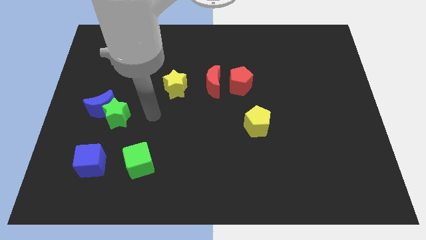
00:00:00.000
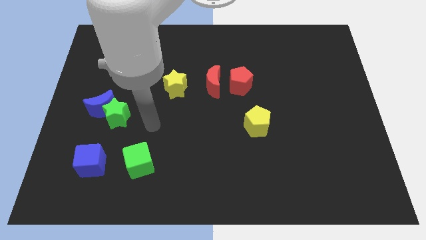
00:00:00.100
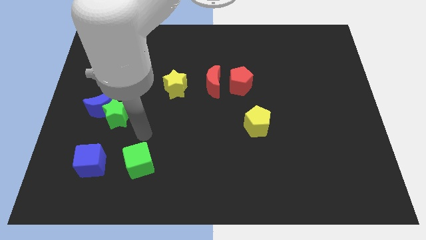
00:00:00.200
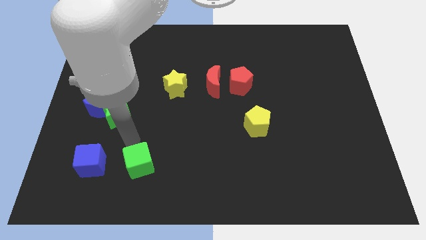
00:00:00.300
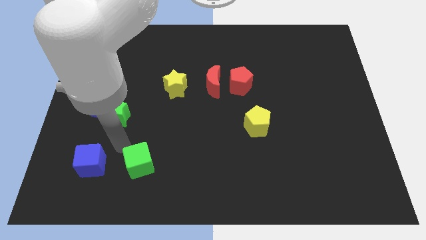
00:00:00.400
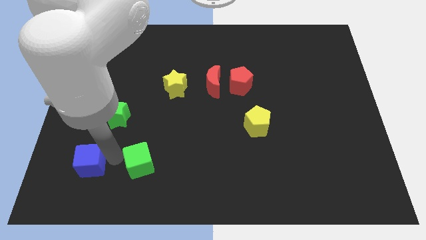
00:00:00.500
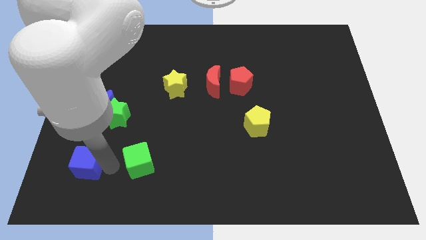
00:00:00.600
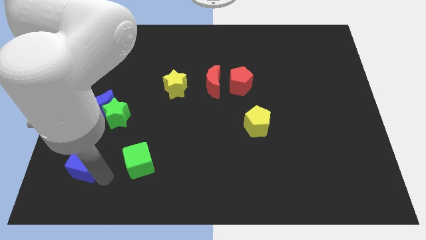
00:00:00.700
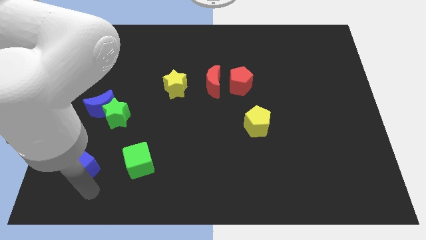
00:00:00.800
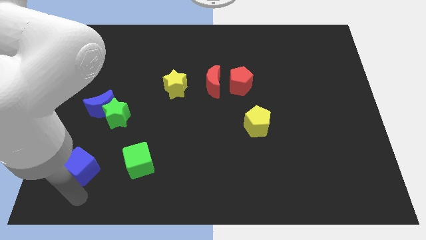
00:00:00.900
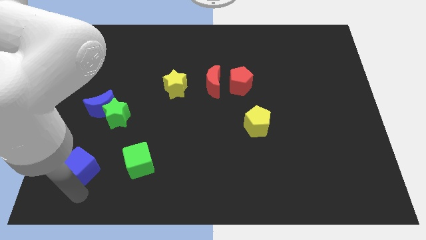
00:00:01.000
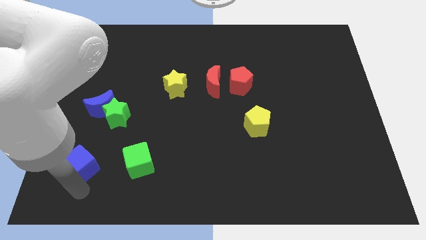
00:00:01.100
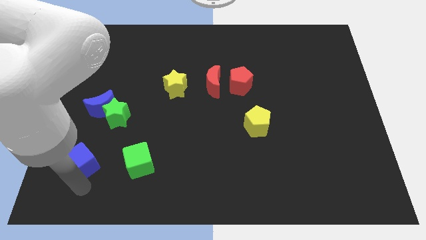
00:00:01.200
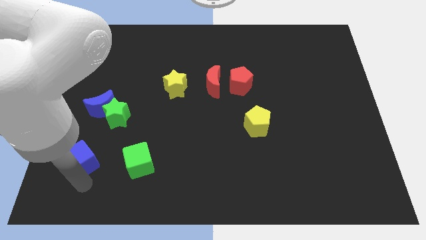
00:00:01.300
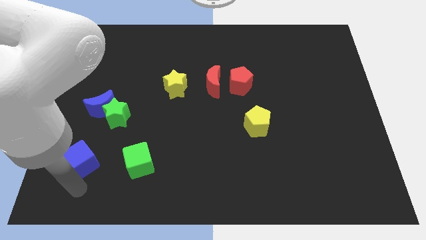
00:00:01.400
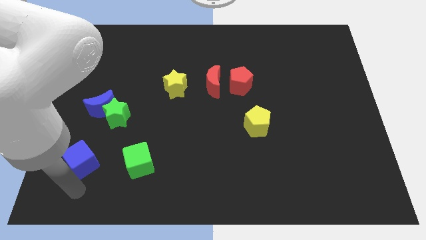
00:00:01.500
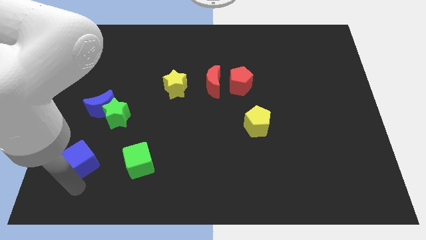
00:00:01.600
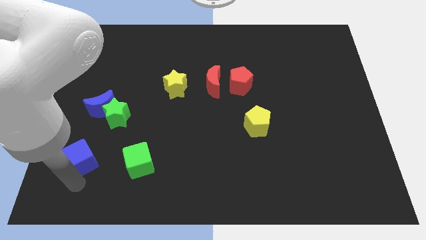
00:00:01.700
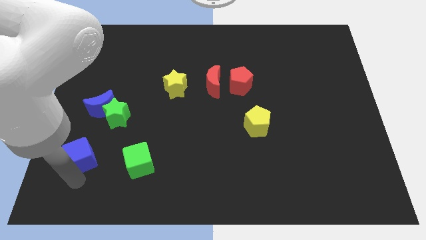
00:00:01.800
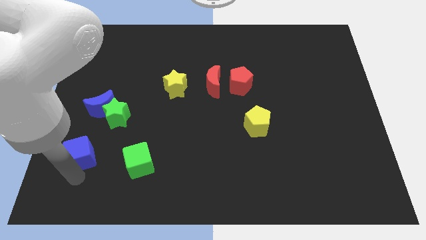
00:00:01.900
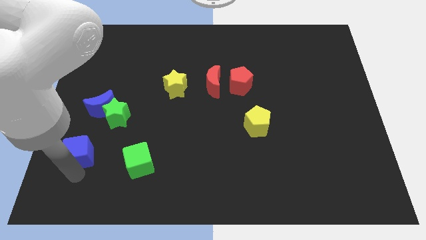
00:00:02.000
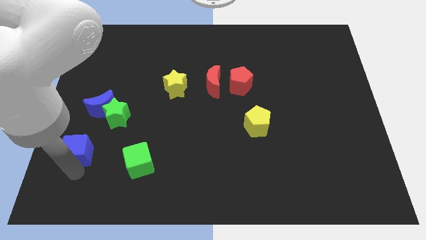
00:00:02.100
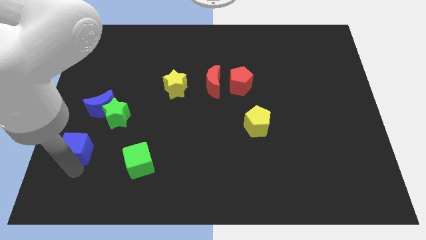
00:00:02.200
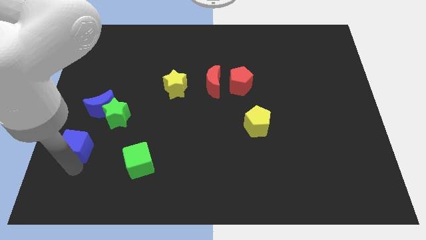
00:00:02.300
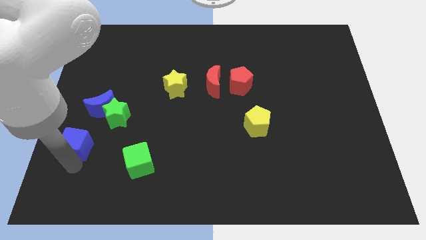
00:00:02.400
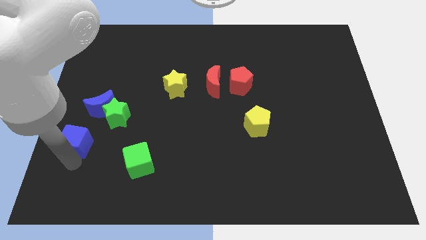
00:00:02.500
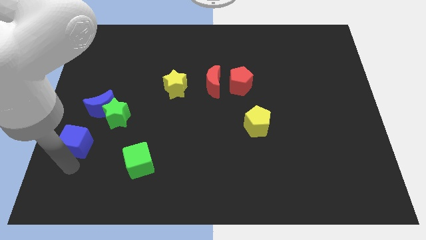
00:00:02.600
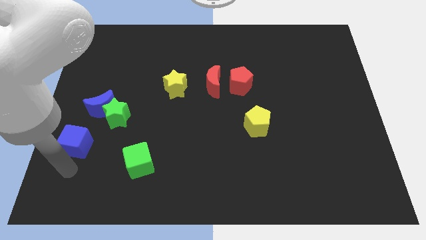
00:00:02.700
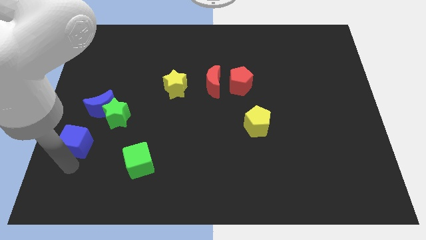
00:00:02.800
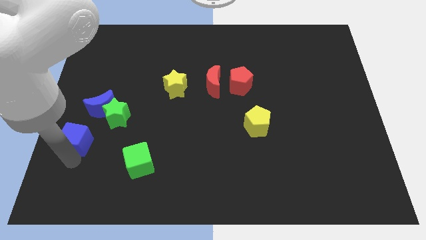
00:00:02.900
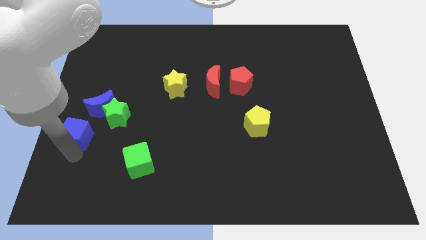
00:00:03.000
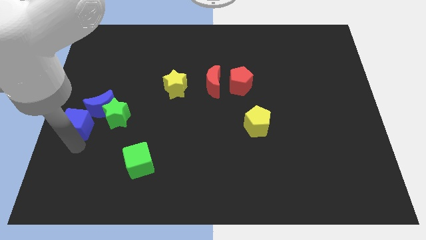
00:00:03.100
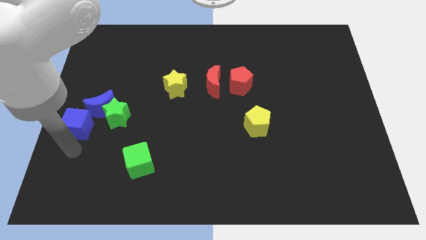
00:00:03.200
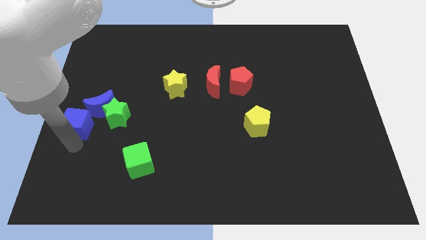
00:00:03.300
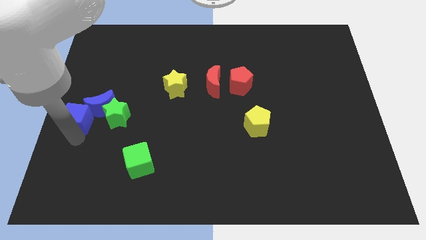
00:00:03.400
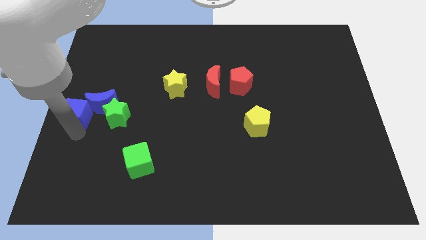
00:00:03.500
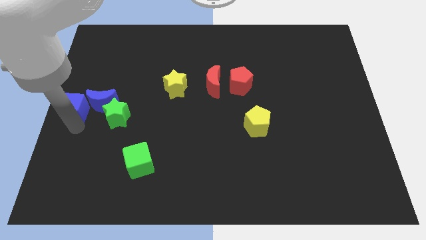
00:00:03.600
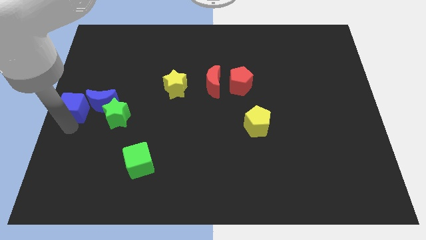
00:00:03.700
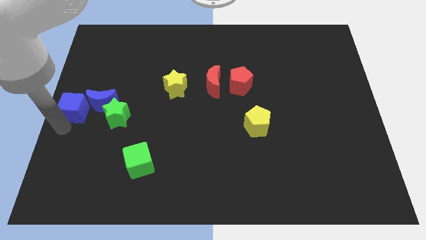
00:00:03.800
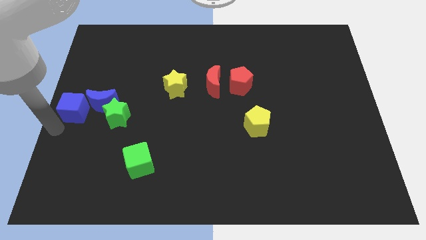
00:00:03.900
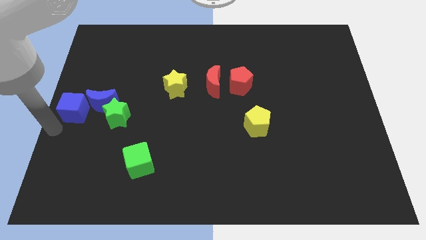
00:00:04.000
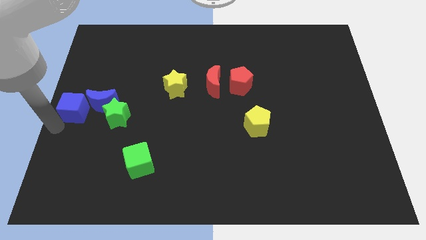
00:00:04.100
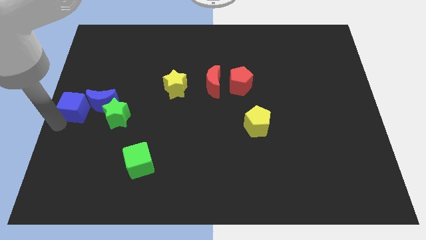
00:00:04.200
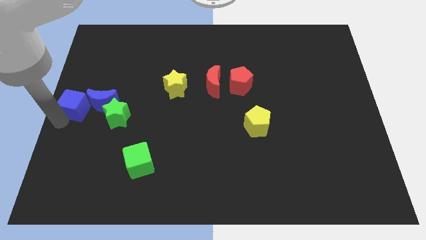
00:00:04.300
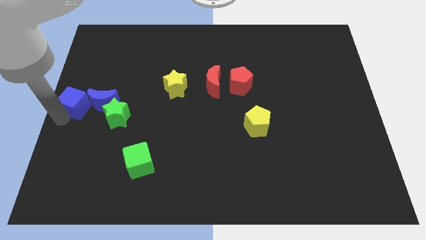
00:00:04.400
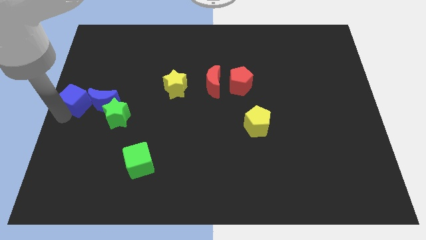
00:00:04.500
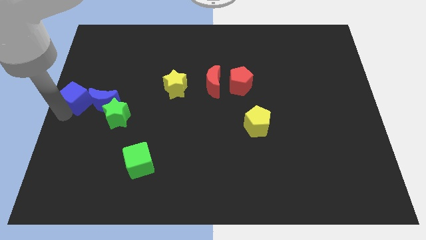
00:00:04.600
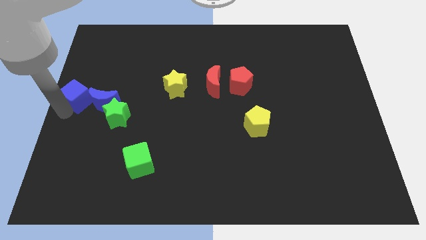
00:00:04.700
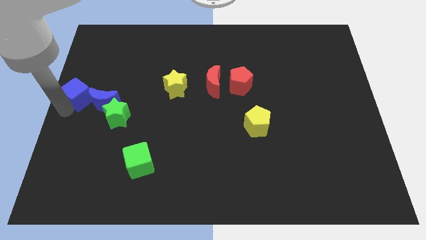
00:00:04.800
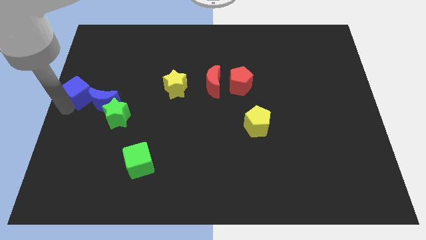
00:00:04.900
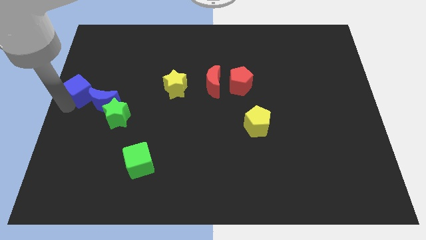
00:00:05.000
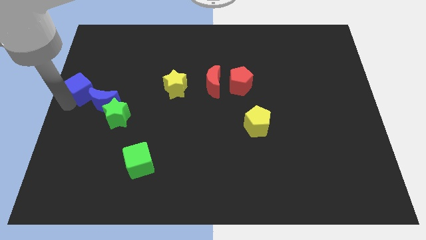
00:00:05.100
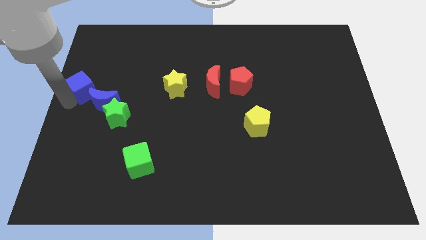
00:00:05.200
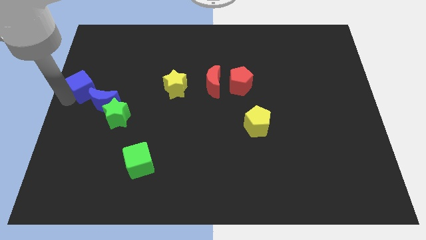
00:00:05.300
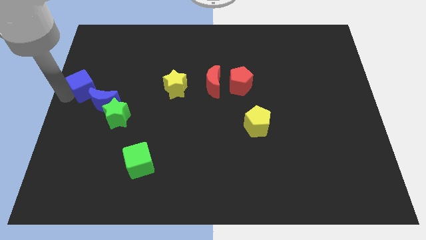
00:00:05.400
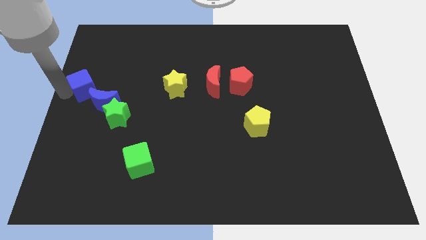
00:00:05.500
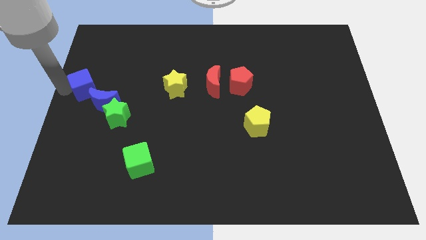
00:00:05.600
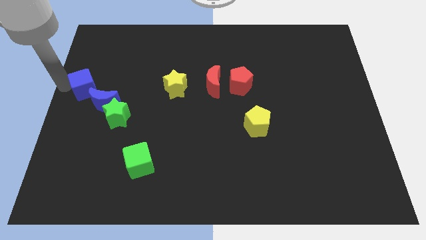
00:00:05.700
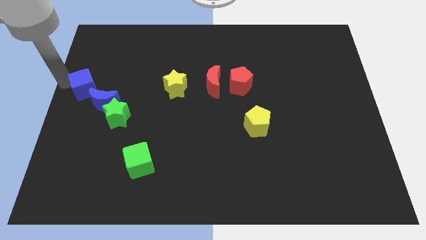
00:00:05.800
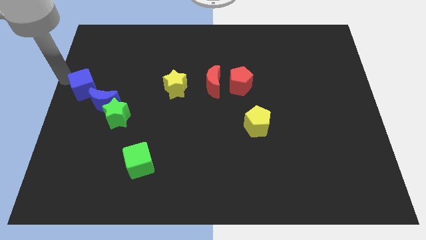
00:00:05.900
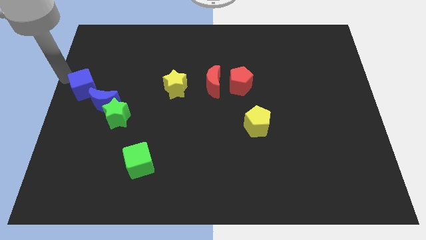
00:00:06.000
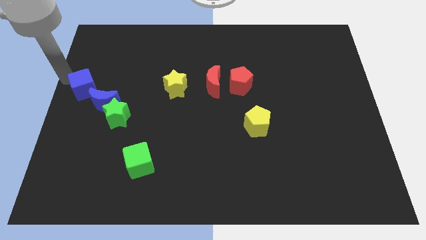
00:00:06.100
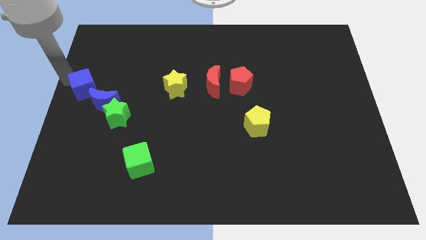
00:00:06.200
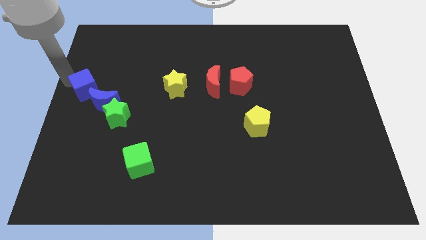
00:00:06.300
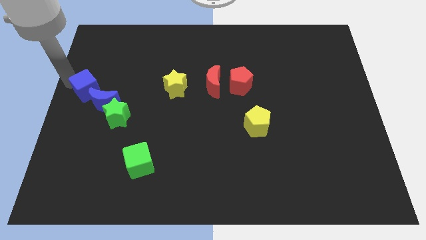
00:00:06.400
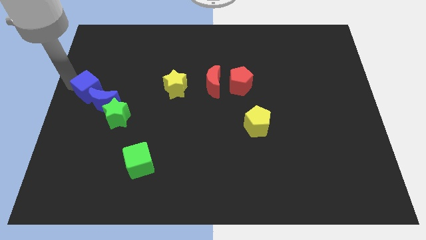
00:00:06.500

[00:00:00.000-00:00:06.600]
slide the blue cube above the blue moon
